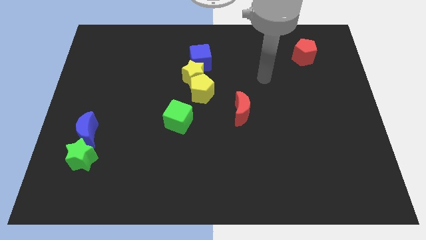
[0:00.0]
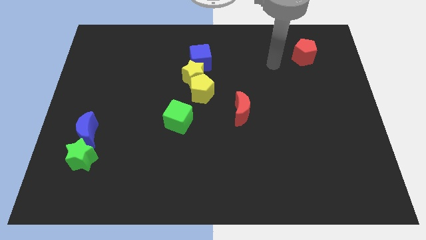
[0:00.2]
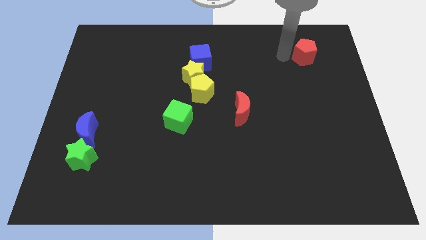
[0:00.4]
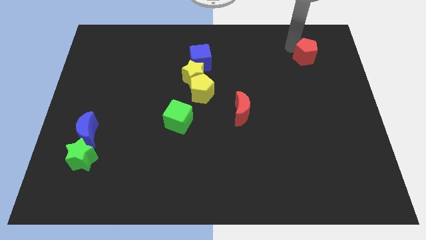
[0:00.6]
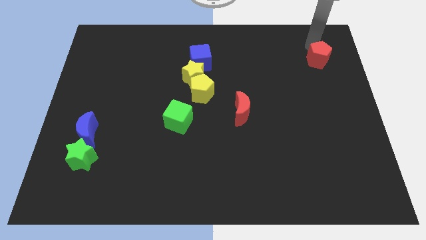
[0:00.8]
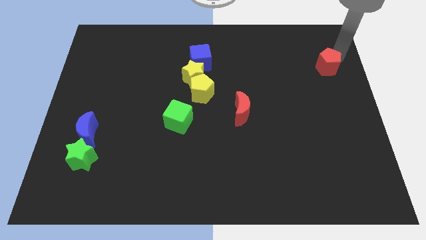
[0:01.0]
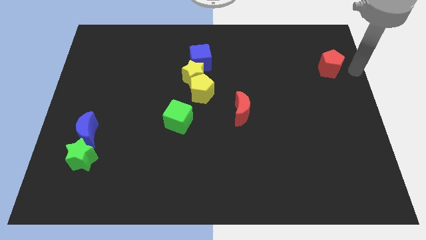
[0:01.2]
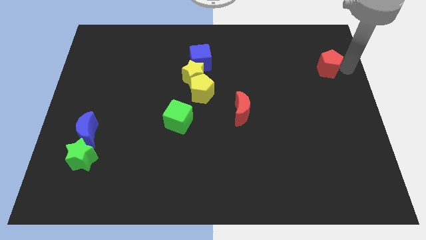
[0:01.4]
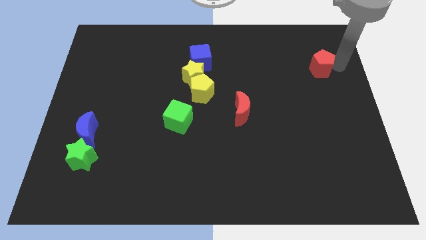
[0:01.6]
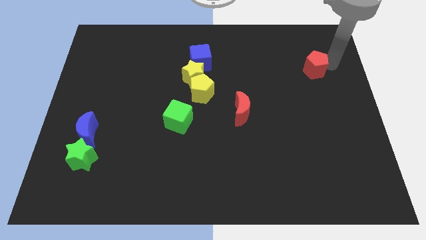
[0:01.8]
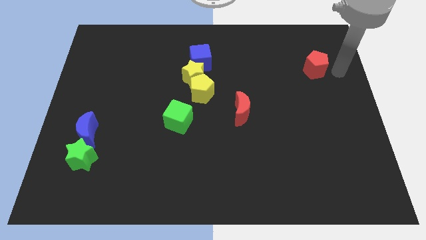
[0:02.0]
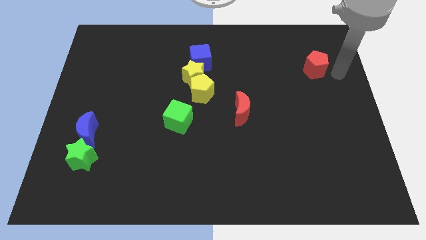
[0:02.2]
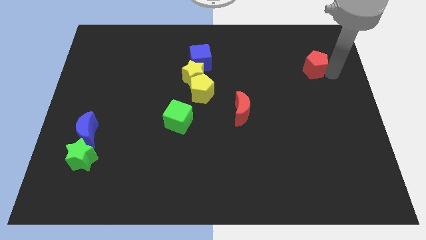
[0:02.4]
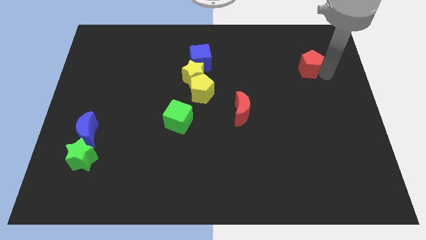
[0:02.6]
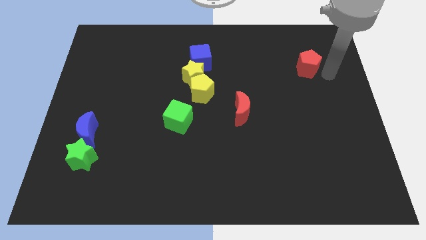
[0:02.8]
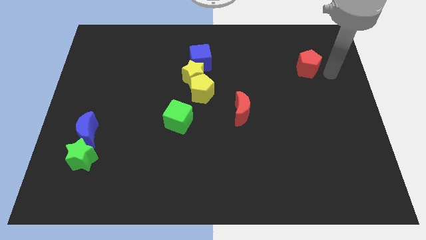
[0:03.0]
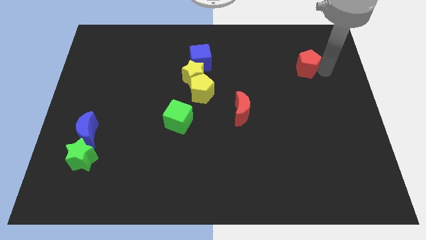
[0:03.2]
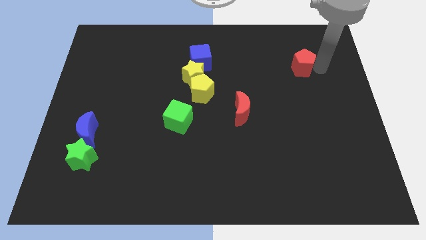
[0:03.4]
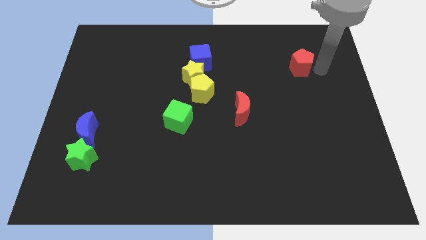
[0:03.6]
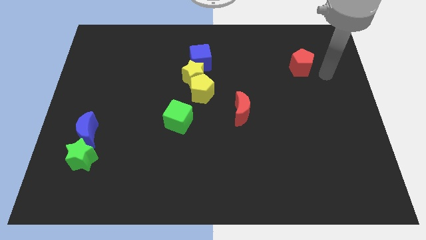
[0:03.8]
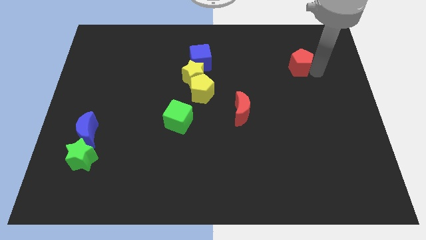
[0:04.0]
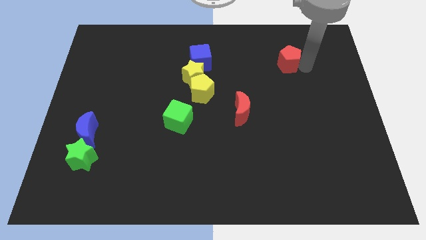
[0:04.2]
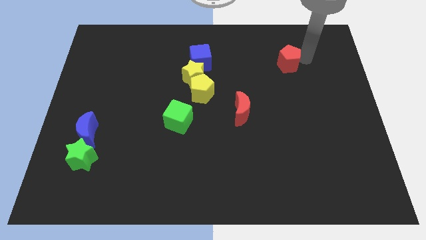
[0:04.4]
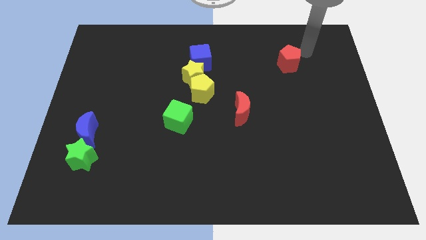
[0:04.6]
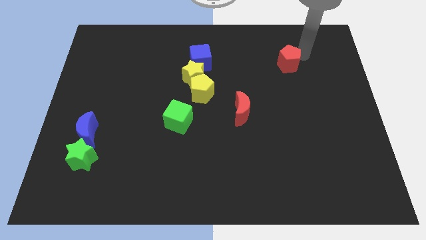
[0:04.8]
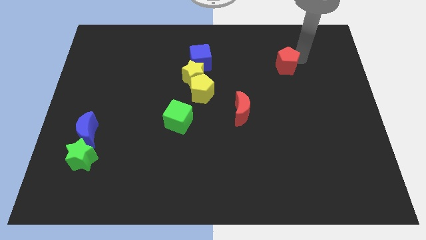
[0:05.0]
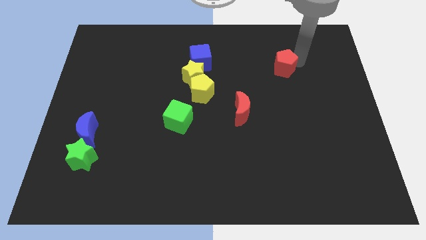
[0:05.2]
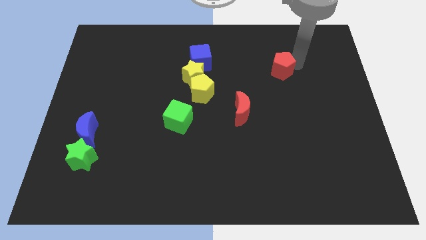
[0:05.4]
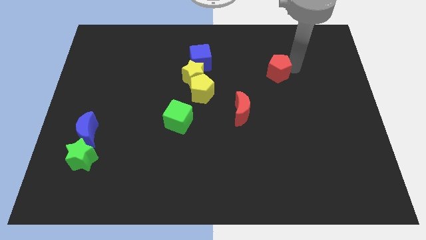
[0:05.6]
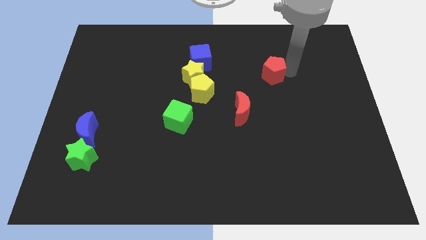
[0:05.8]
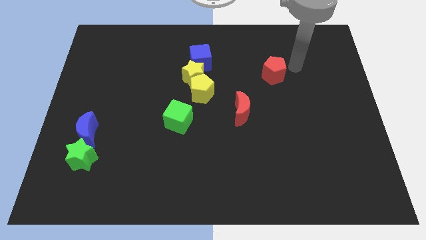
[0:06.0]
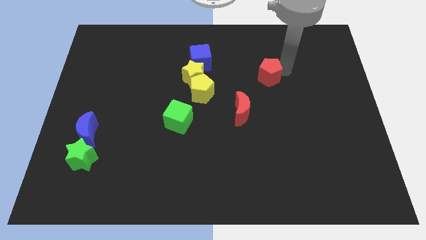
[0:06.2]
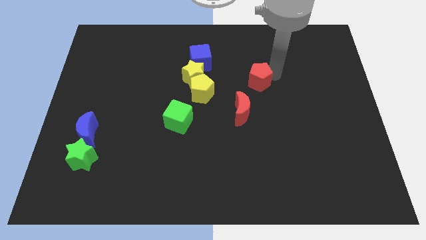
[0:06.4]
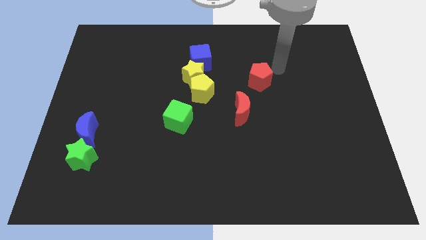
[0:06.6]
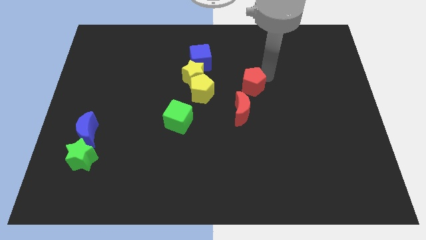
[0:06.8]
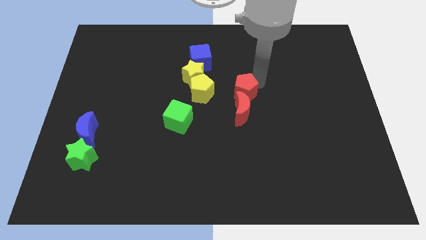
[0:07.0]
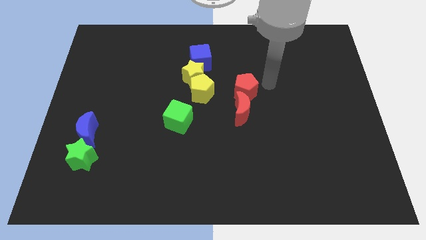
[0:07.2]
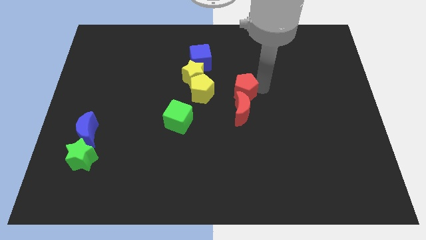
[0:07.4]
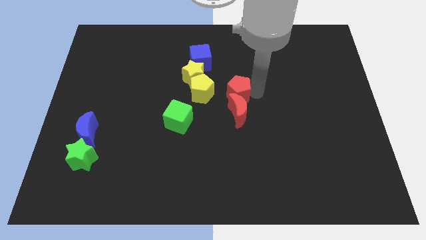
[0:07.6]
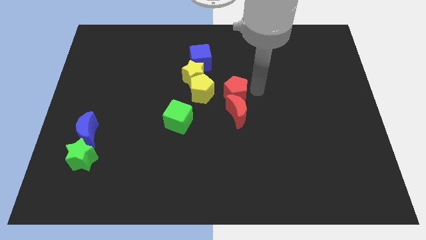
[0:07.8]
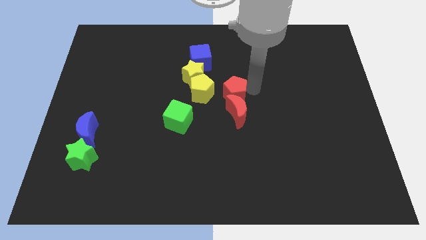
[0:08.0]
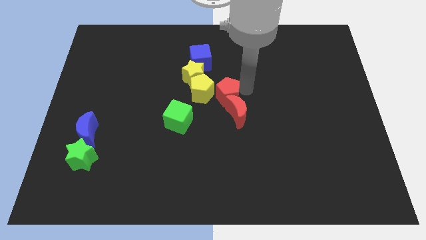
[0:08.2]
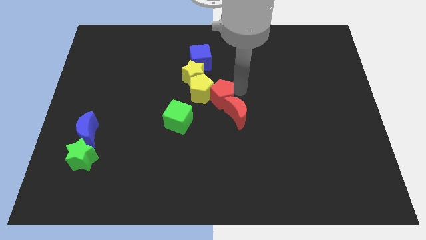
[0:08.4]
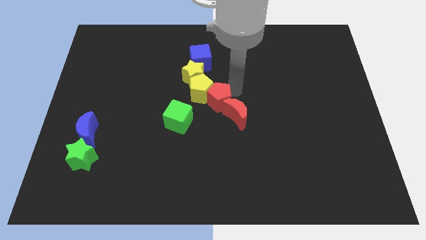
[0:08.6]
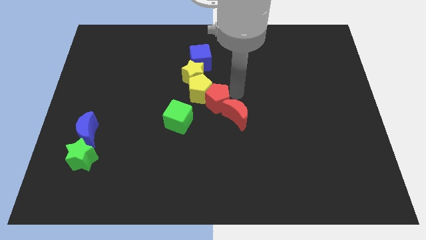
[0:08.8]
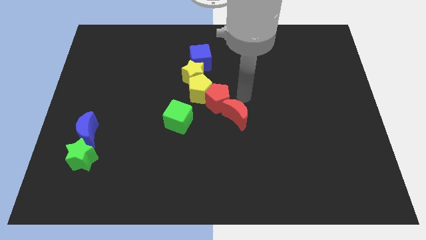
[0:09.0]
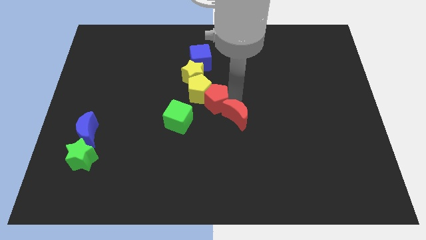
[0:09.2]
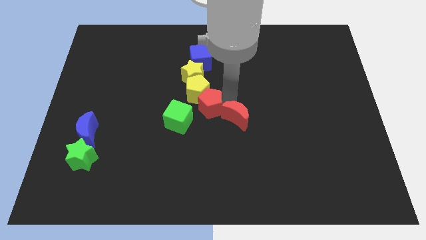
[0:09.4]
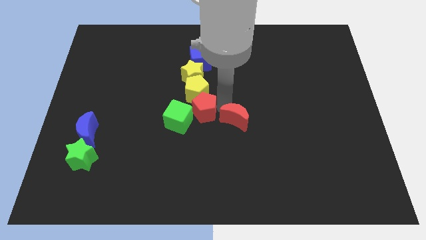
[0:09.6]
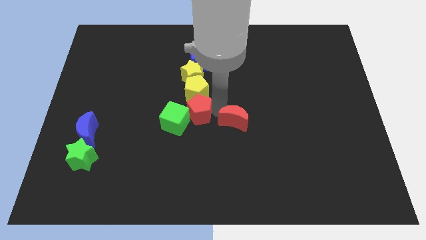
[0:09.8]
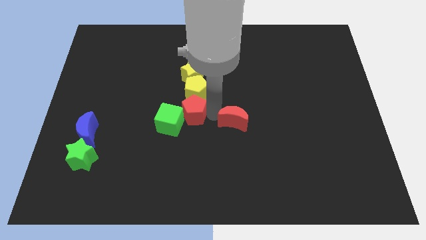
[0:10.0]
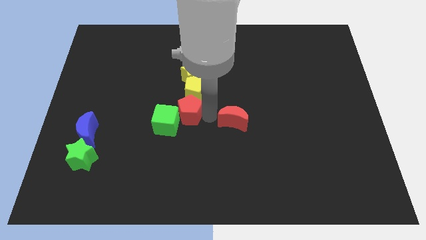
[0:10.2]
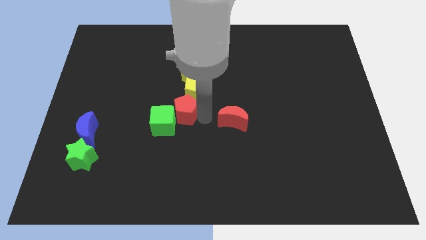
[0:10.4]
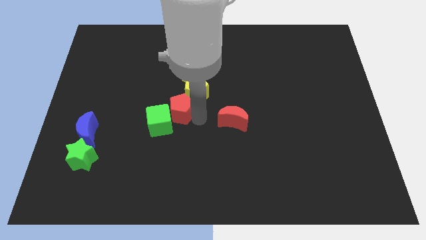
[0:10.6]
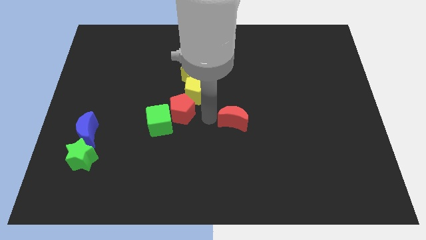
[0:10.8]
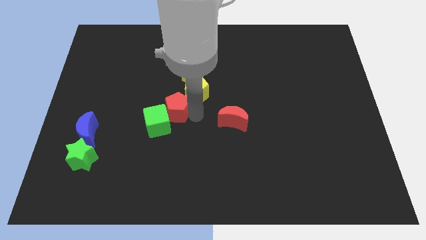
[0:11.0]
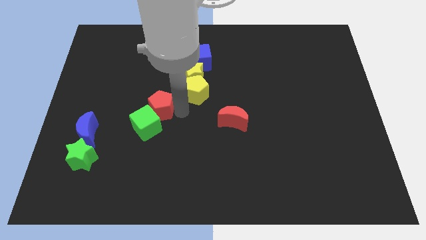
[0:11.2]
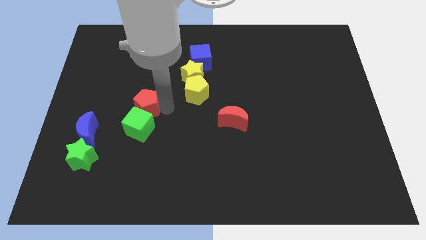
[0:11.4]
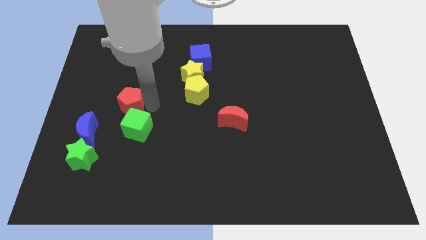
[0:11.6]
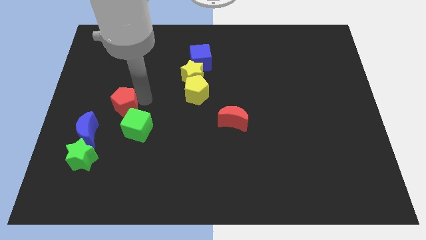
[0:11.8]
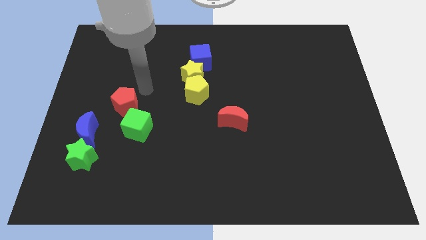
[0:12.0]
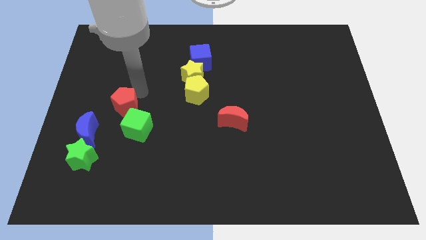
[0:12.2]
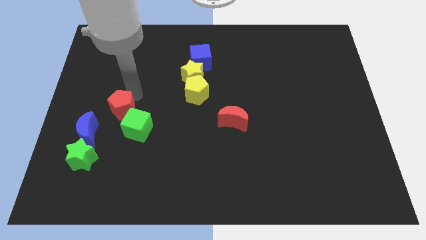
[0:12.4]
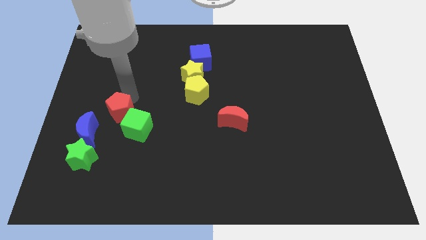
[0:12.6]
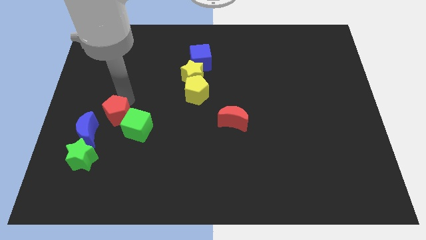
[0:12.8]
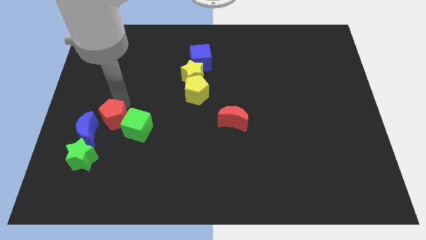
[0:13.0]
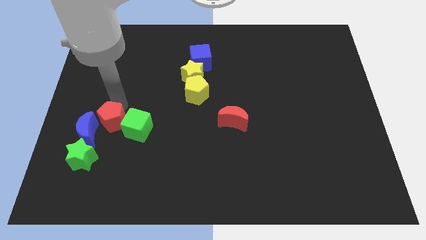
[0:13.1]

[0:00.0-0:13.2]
slide the red pentagon next to the blue moon
